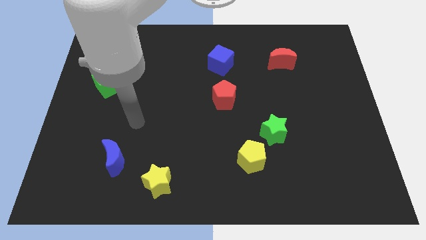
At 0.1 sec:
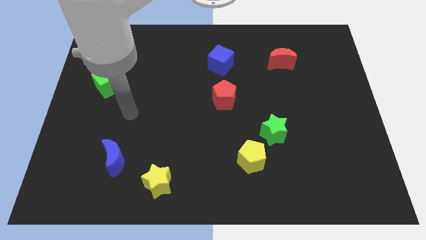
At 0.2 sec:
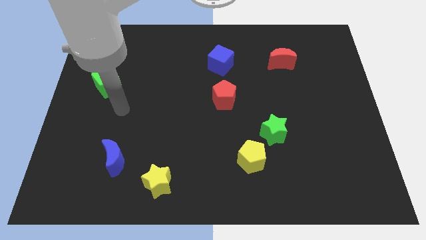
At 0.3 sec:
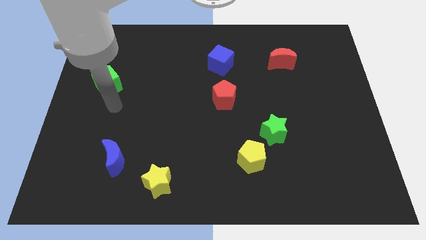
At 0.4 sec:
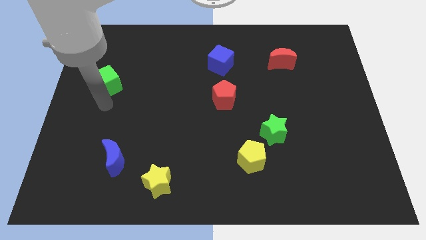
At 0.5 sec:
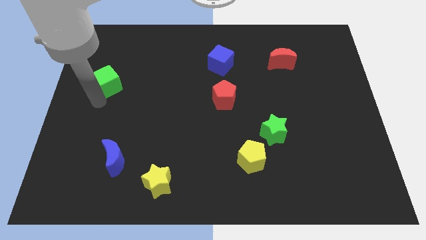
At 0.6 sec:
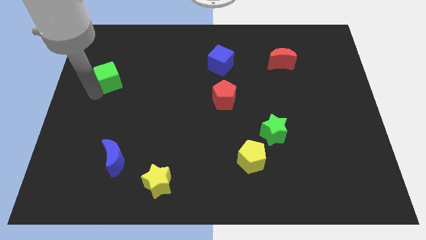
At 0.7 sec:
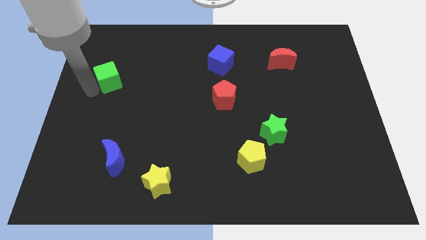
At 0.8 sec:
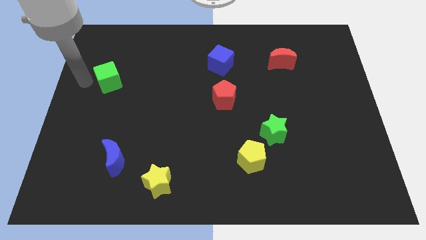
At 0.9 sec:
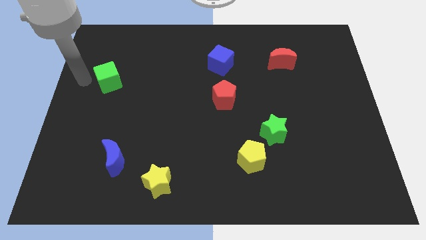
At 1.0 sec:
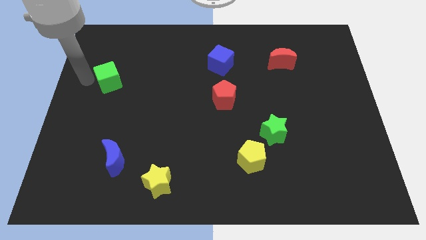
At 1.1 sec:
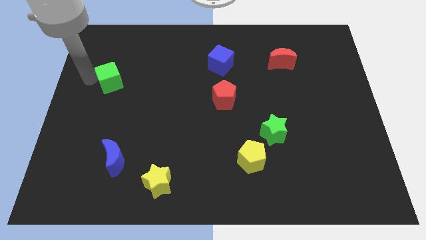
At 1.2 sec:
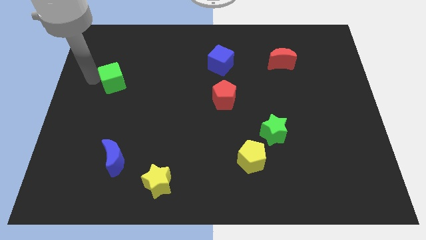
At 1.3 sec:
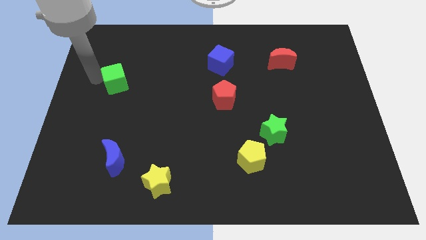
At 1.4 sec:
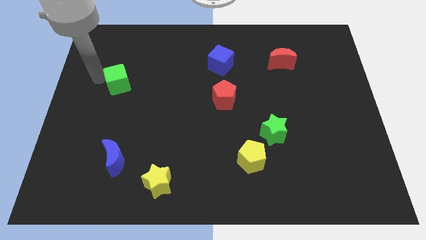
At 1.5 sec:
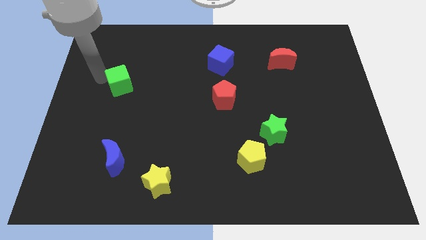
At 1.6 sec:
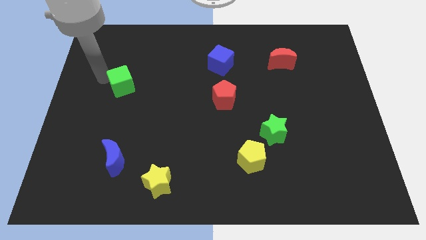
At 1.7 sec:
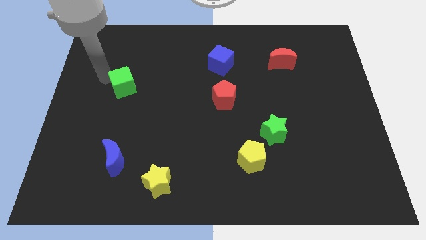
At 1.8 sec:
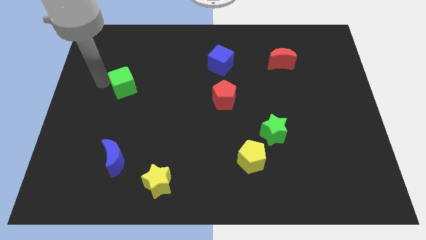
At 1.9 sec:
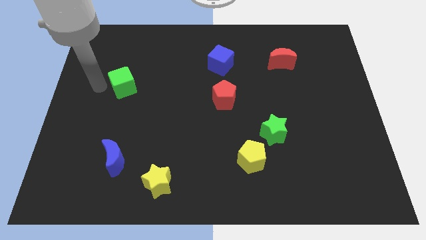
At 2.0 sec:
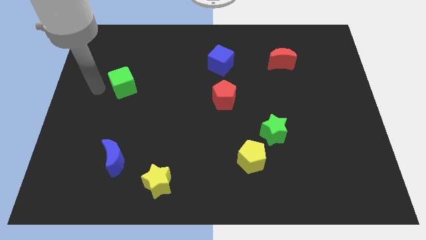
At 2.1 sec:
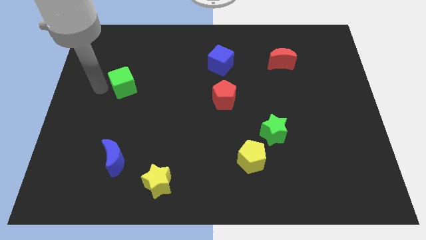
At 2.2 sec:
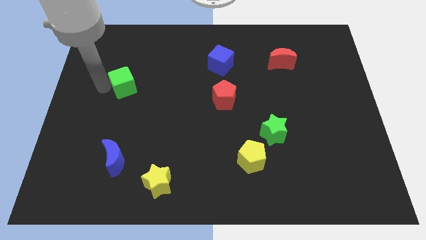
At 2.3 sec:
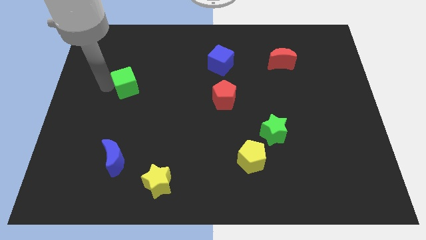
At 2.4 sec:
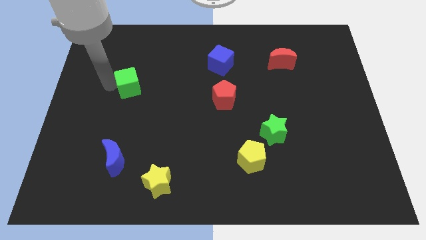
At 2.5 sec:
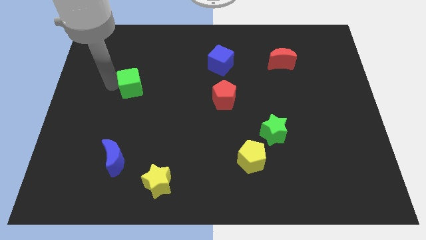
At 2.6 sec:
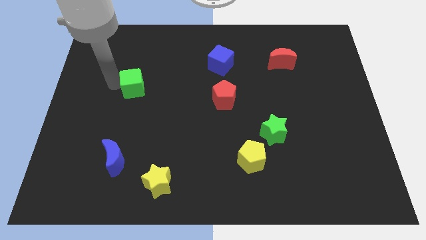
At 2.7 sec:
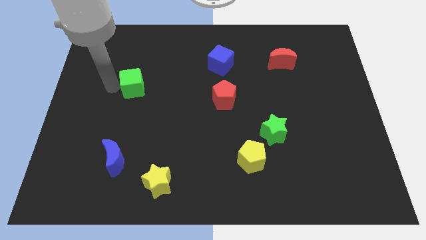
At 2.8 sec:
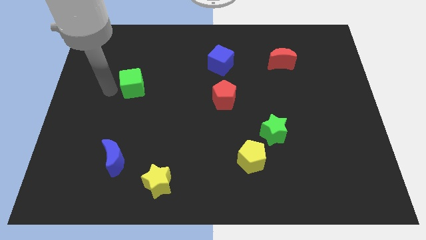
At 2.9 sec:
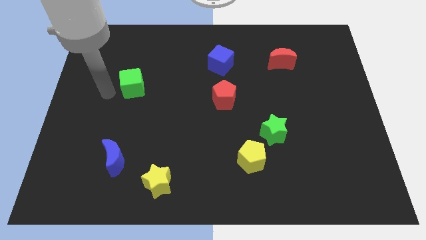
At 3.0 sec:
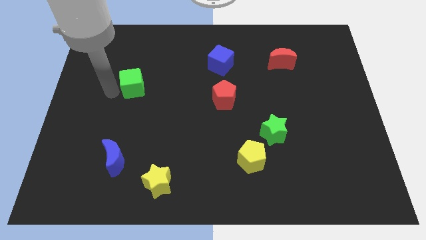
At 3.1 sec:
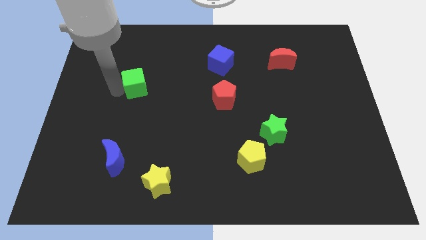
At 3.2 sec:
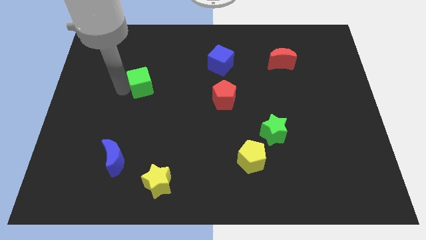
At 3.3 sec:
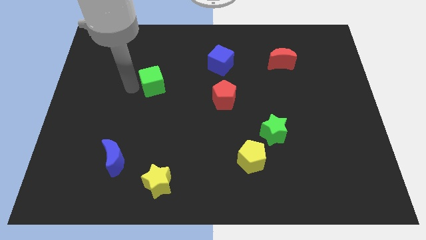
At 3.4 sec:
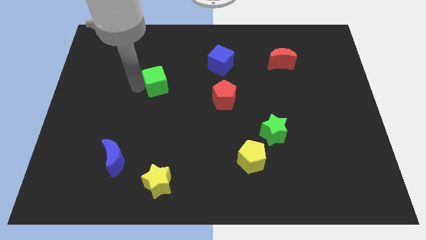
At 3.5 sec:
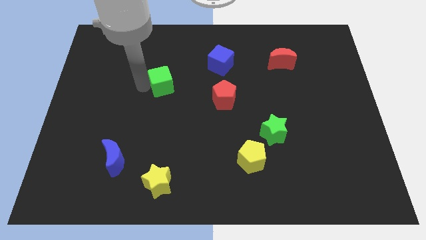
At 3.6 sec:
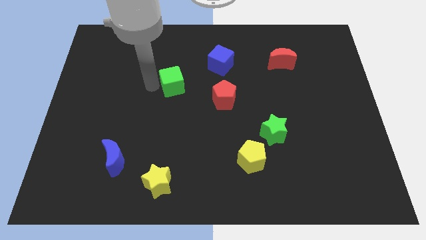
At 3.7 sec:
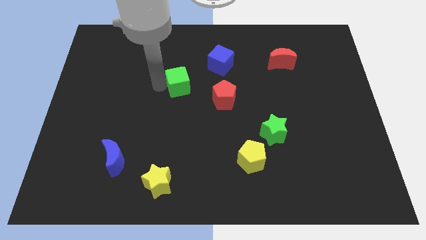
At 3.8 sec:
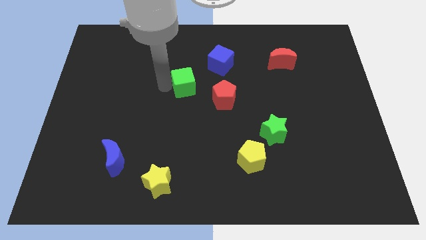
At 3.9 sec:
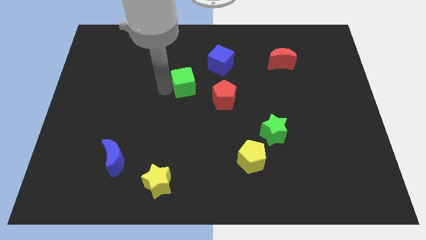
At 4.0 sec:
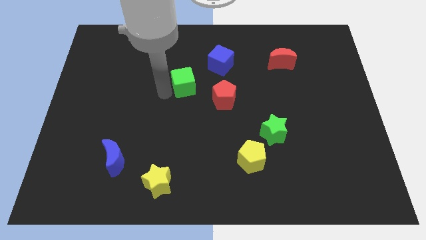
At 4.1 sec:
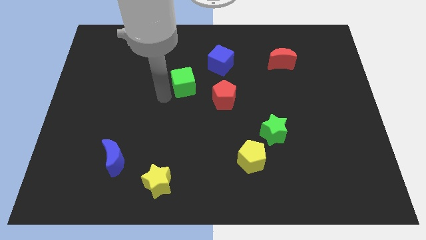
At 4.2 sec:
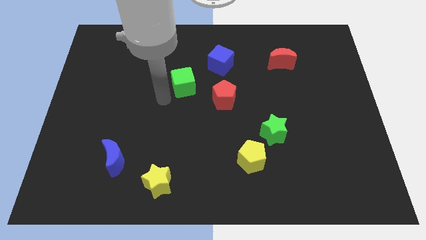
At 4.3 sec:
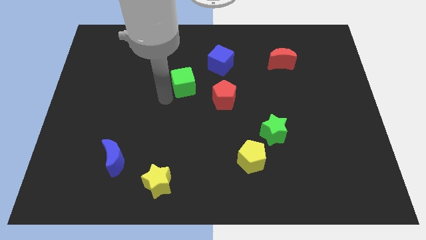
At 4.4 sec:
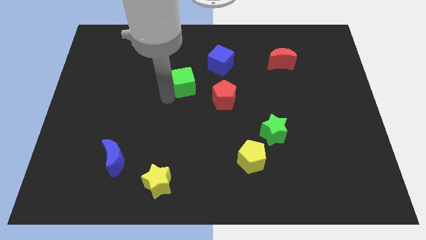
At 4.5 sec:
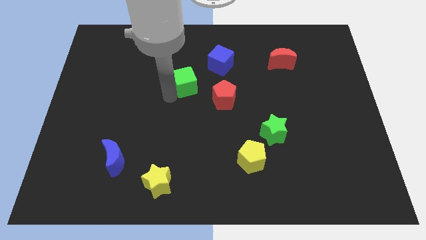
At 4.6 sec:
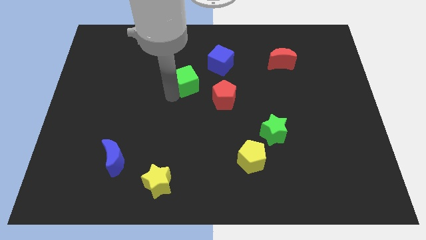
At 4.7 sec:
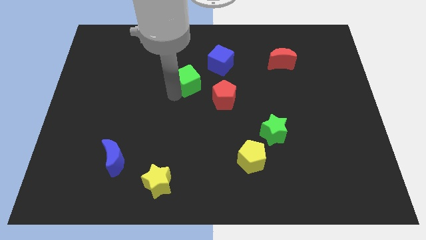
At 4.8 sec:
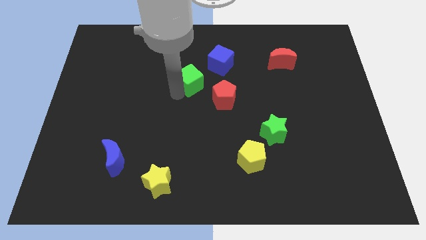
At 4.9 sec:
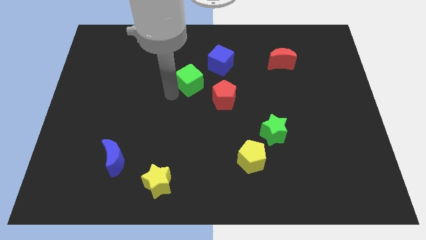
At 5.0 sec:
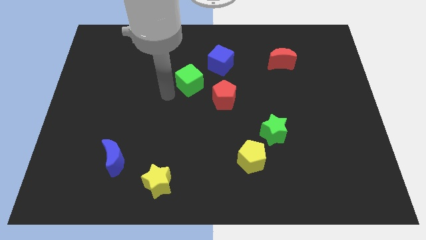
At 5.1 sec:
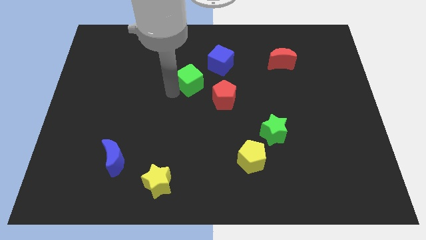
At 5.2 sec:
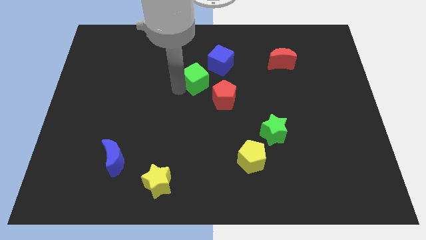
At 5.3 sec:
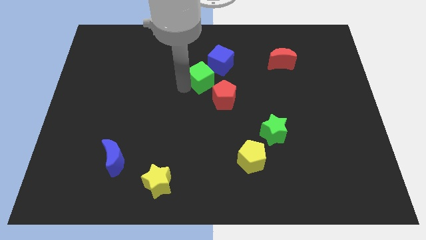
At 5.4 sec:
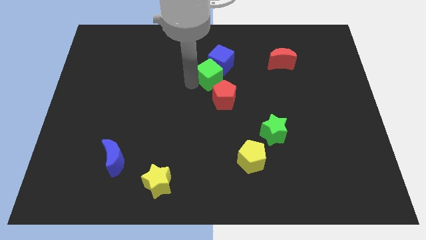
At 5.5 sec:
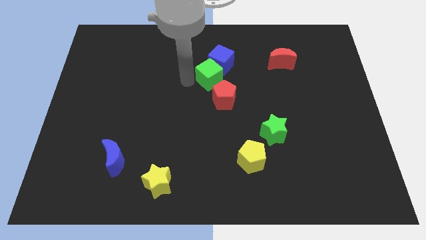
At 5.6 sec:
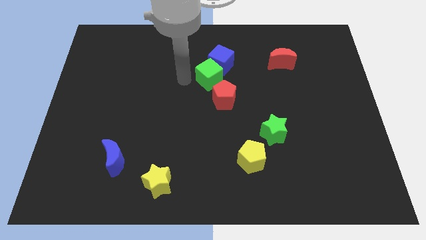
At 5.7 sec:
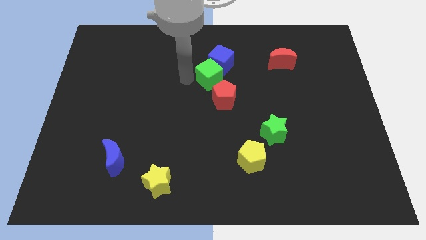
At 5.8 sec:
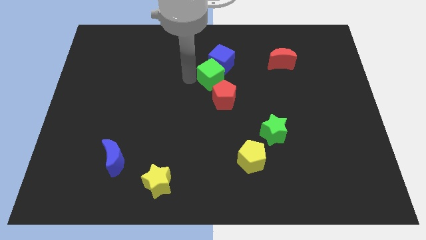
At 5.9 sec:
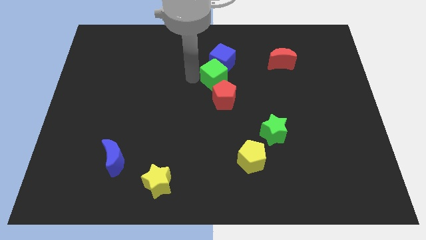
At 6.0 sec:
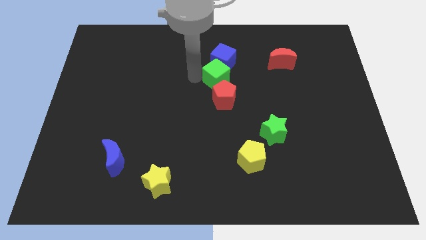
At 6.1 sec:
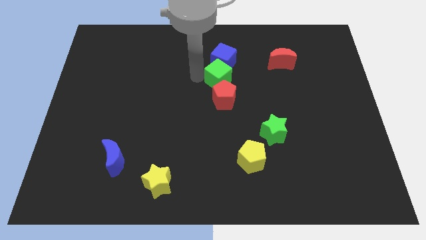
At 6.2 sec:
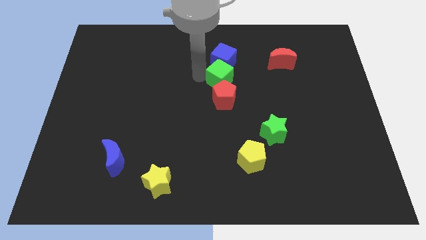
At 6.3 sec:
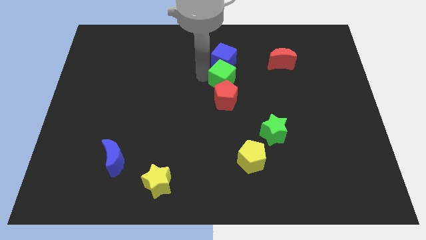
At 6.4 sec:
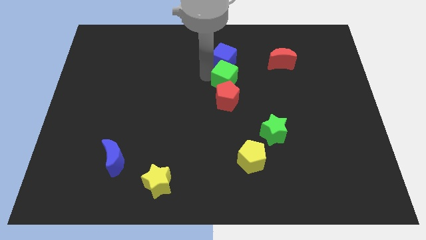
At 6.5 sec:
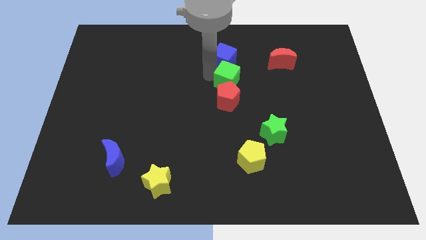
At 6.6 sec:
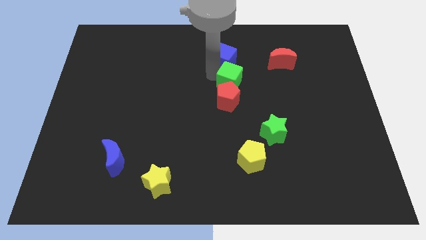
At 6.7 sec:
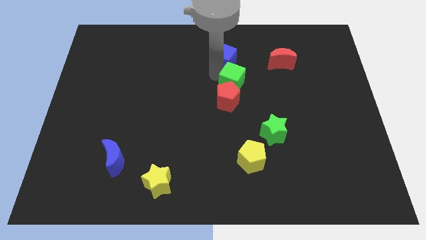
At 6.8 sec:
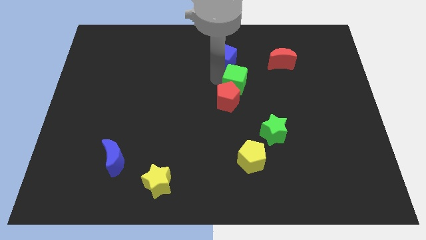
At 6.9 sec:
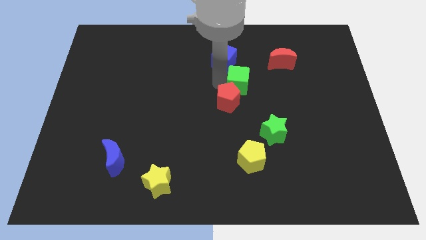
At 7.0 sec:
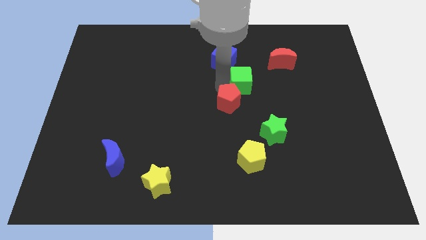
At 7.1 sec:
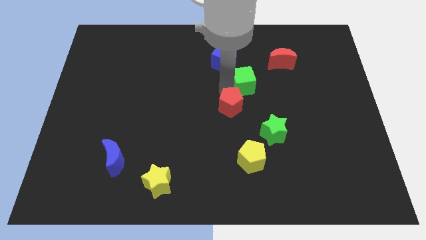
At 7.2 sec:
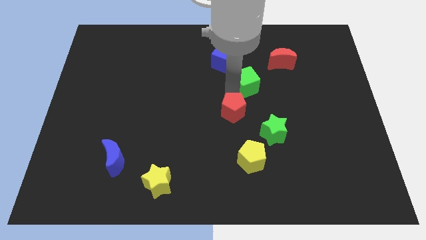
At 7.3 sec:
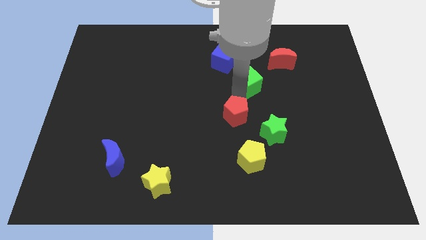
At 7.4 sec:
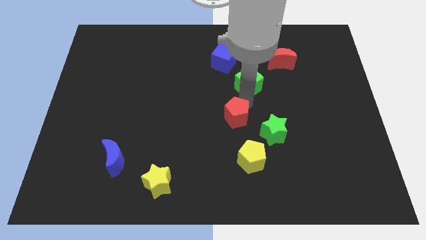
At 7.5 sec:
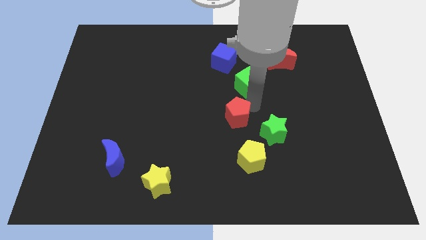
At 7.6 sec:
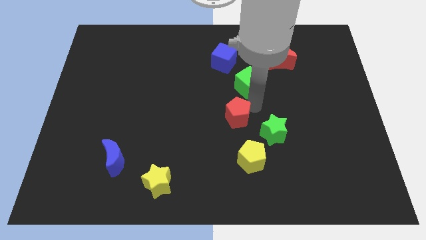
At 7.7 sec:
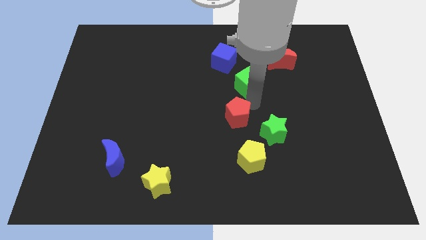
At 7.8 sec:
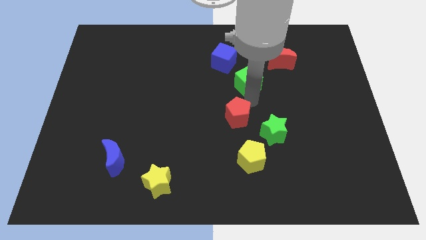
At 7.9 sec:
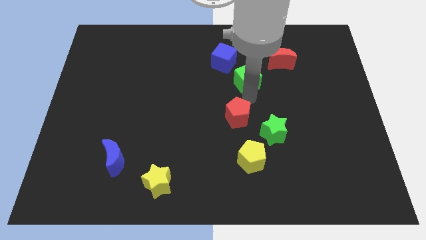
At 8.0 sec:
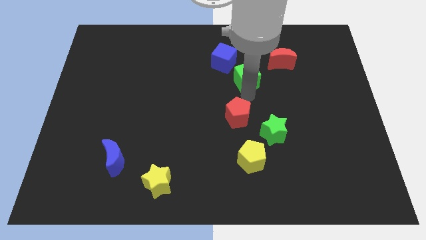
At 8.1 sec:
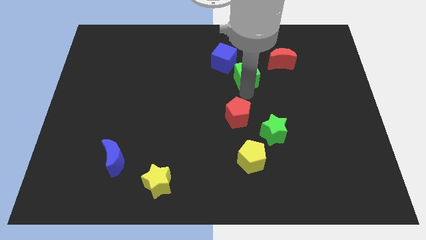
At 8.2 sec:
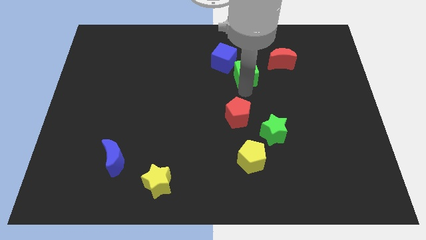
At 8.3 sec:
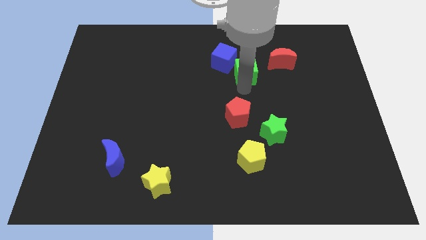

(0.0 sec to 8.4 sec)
move the green cube to the left side of the red moon
